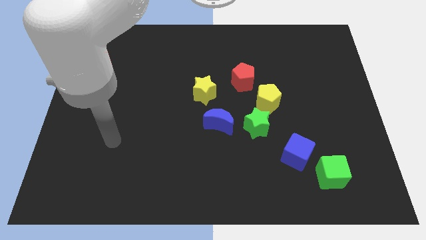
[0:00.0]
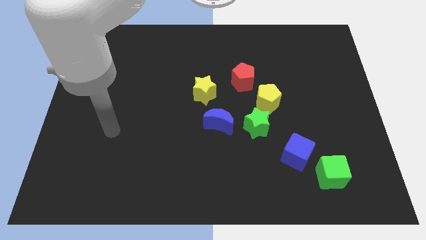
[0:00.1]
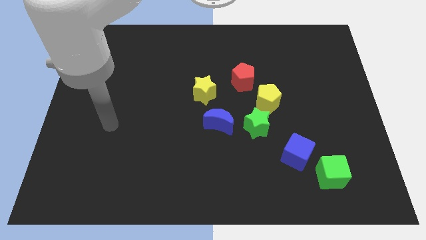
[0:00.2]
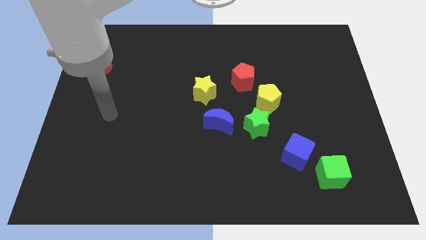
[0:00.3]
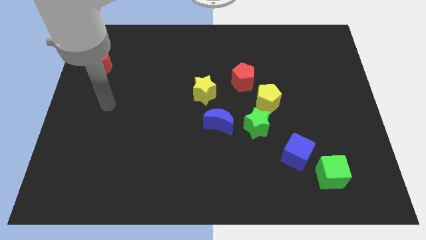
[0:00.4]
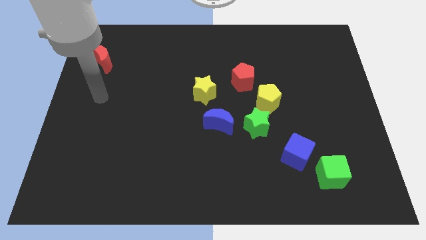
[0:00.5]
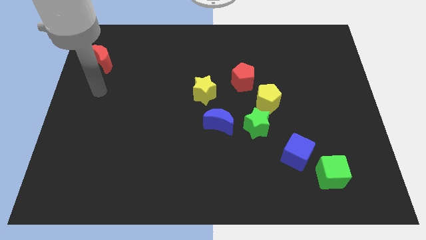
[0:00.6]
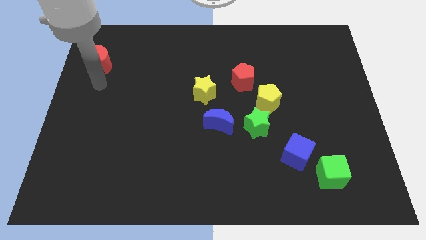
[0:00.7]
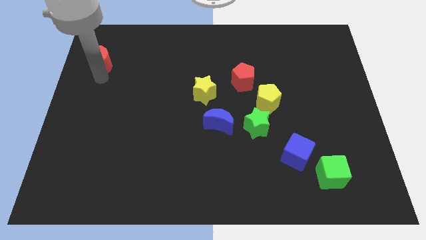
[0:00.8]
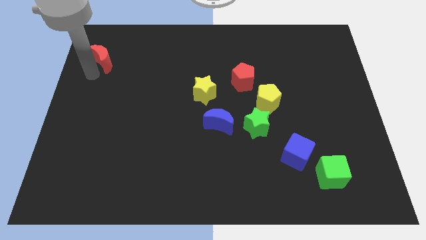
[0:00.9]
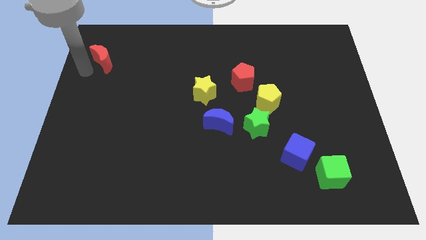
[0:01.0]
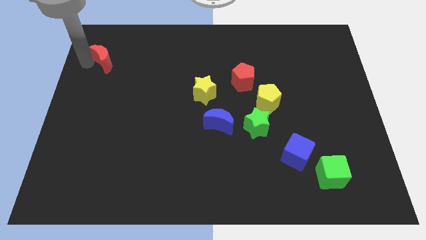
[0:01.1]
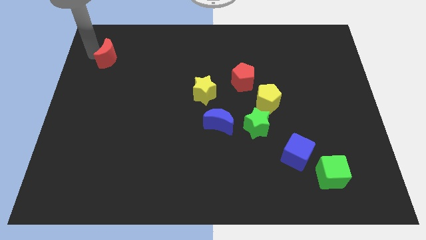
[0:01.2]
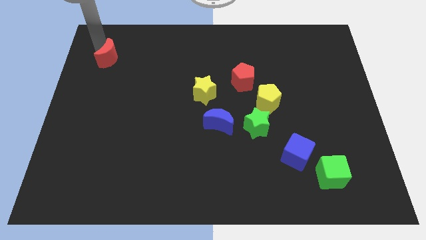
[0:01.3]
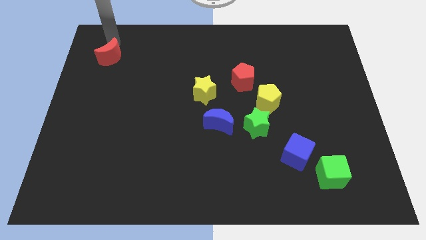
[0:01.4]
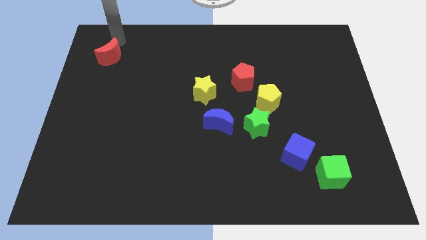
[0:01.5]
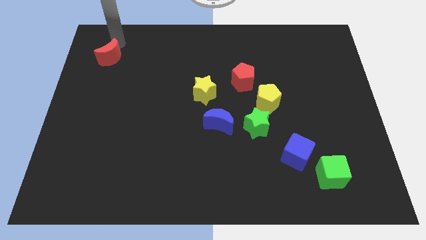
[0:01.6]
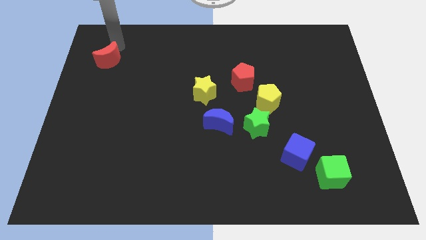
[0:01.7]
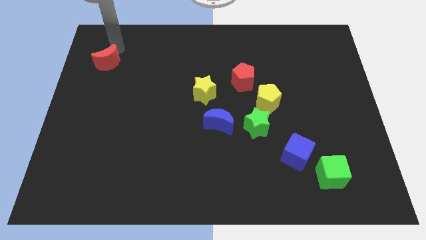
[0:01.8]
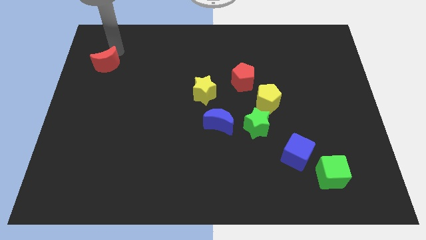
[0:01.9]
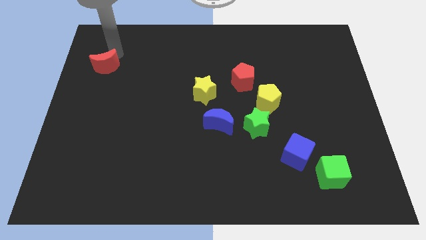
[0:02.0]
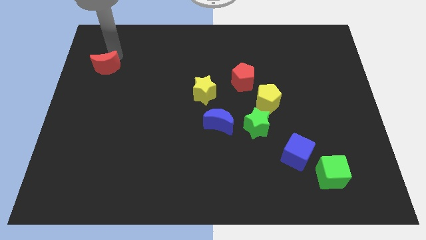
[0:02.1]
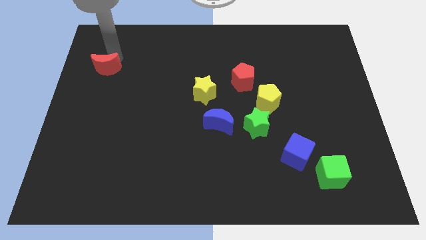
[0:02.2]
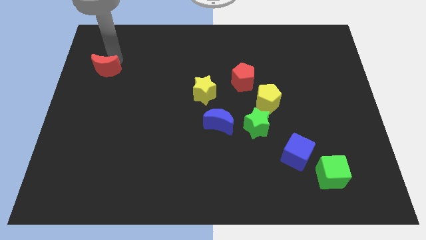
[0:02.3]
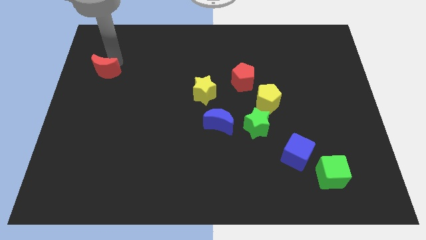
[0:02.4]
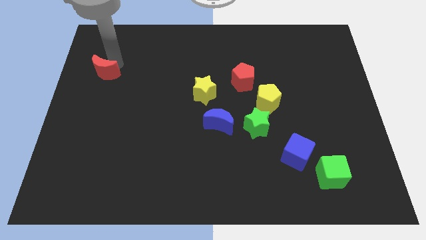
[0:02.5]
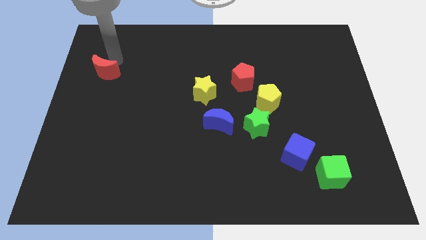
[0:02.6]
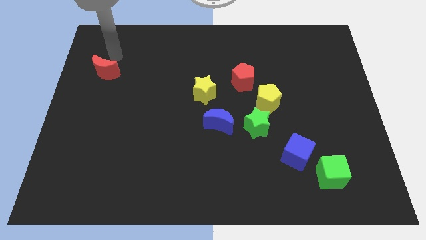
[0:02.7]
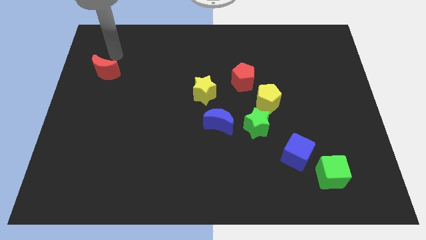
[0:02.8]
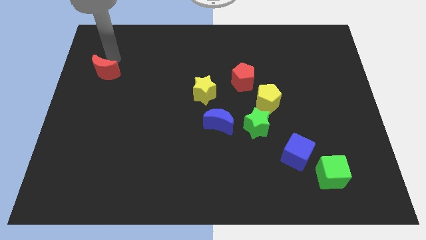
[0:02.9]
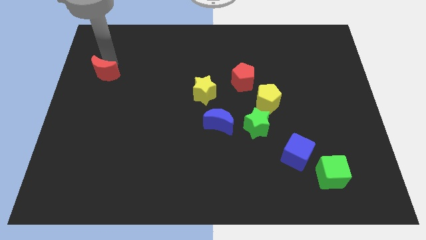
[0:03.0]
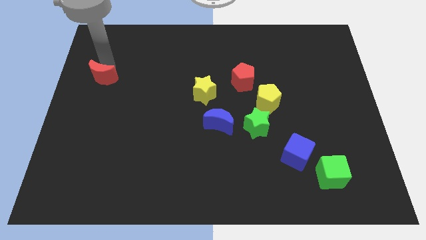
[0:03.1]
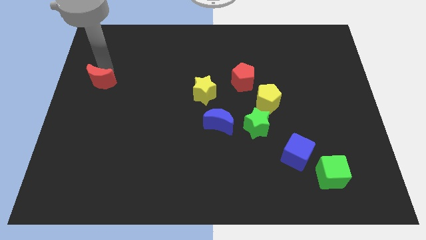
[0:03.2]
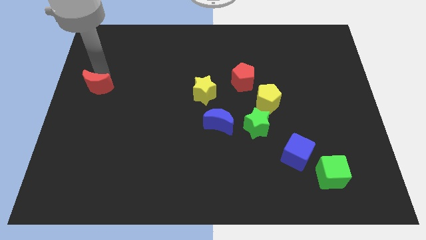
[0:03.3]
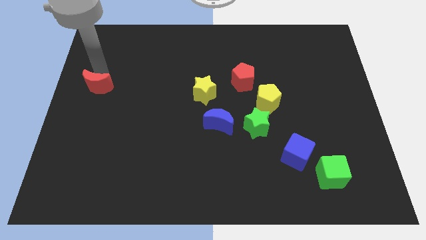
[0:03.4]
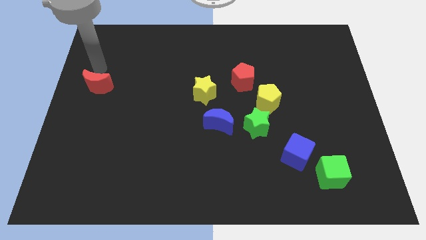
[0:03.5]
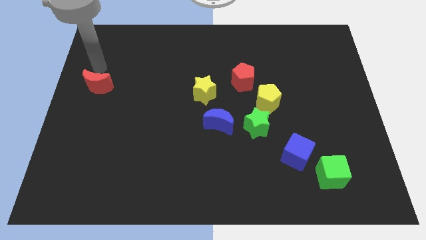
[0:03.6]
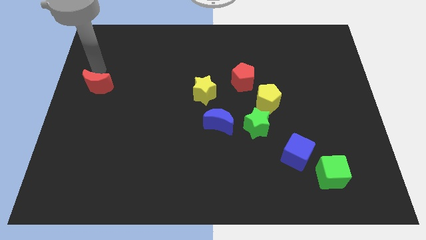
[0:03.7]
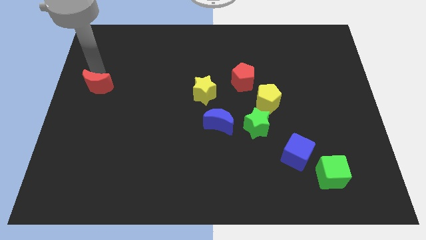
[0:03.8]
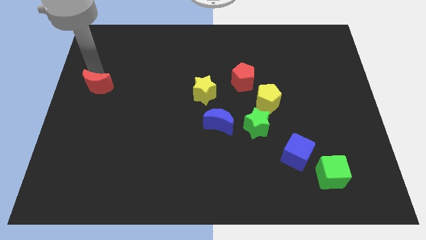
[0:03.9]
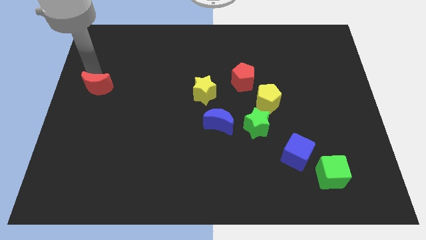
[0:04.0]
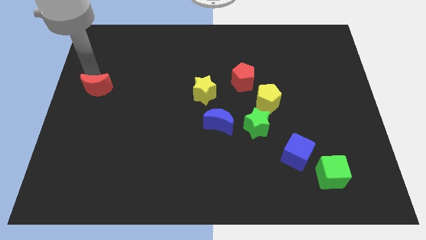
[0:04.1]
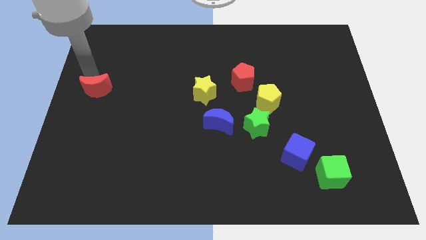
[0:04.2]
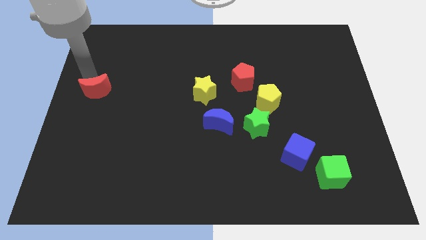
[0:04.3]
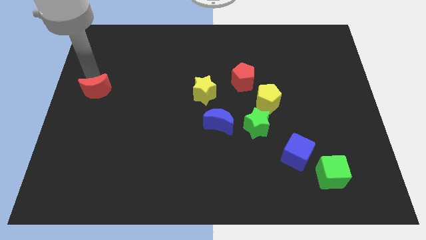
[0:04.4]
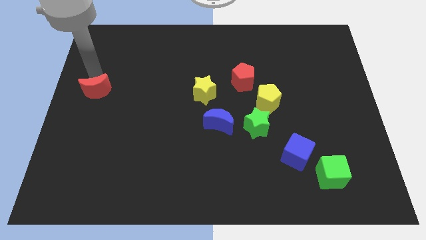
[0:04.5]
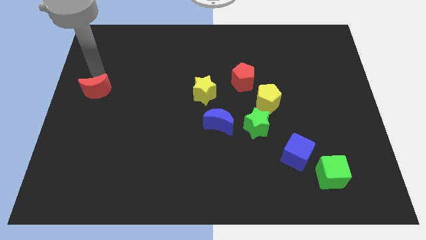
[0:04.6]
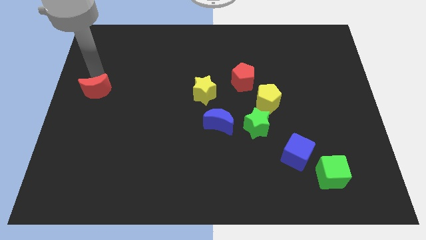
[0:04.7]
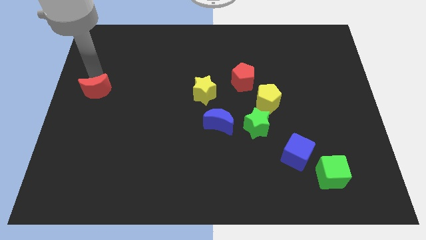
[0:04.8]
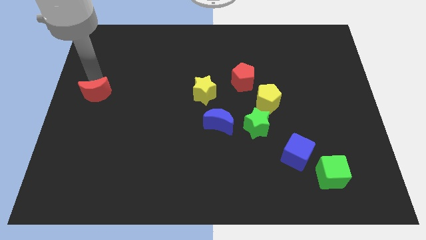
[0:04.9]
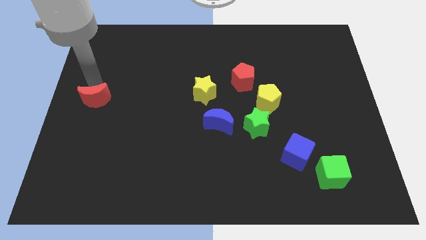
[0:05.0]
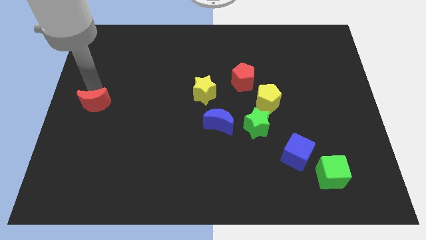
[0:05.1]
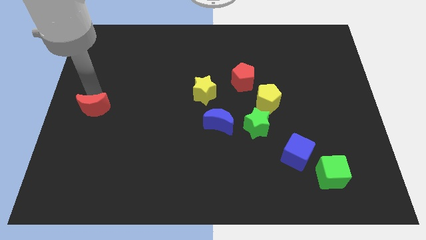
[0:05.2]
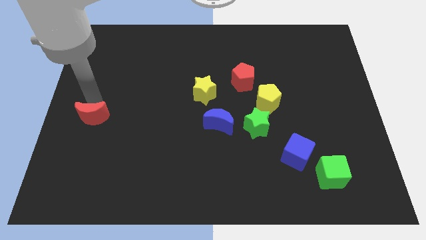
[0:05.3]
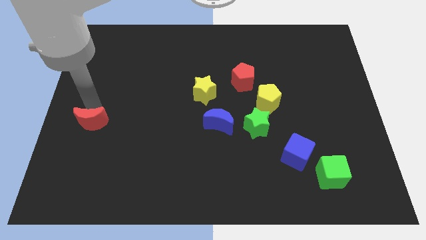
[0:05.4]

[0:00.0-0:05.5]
move the red moon downwards

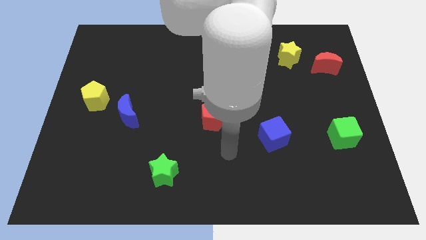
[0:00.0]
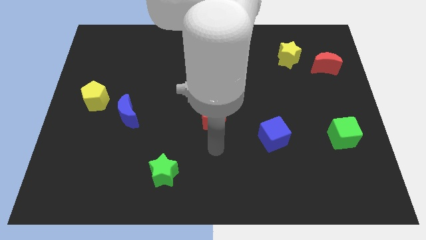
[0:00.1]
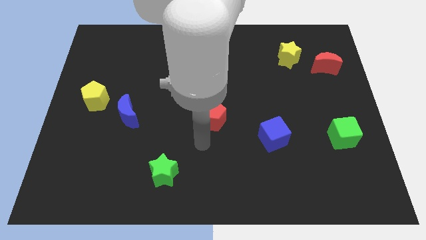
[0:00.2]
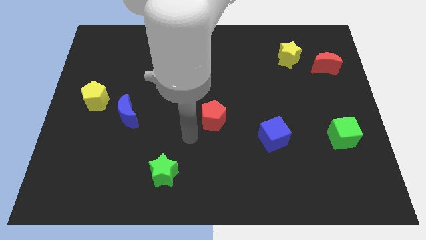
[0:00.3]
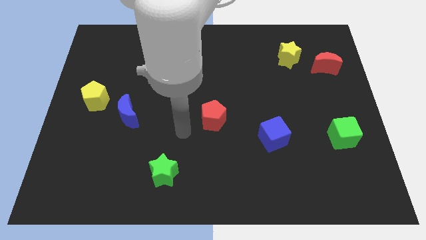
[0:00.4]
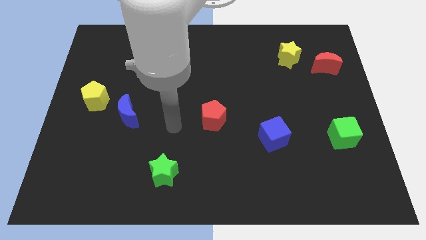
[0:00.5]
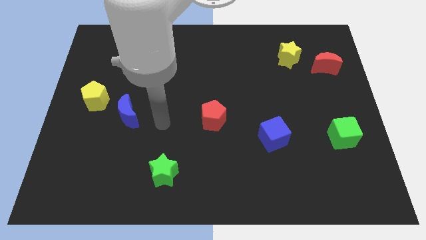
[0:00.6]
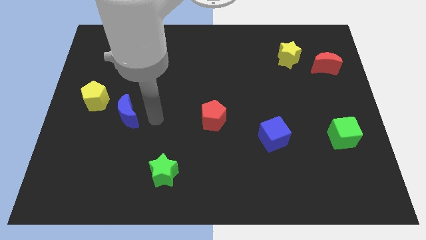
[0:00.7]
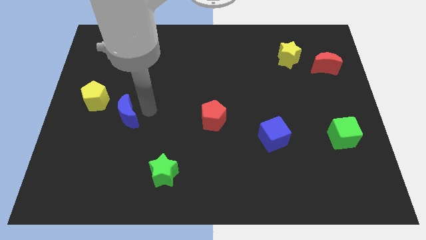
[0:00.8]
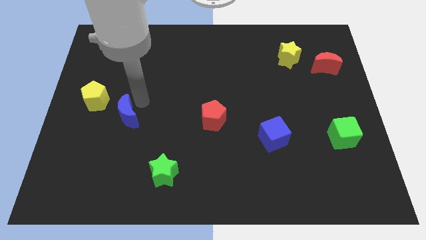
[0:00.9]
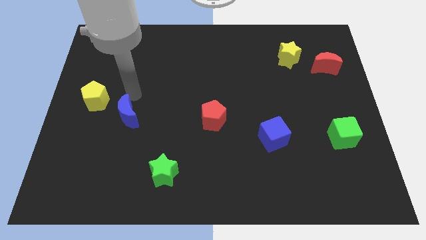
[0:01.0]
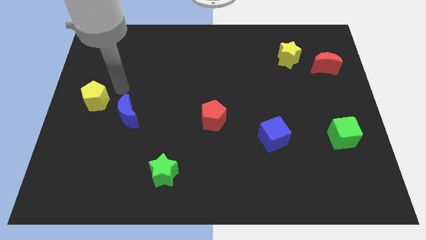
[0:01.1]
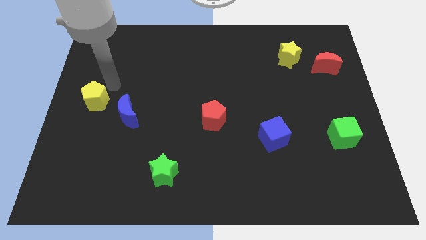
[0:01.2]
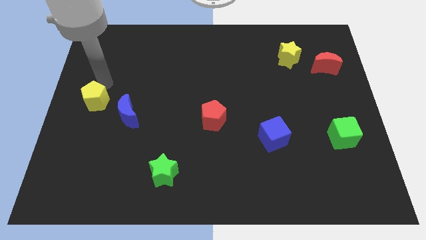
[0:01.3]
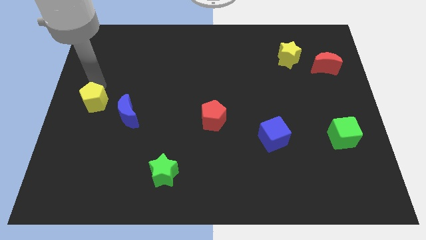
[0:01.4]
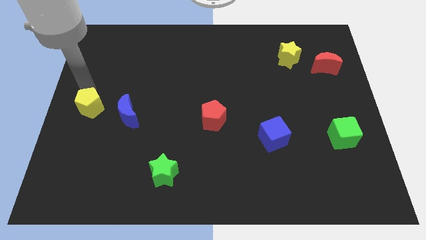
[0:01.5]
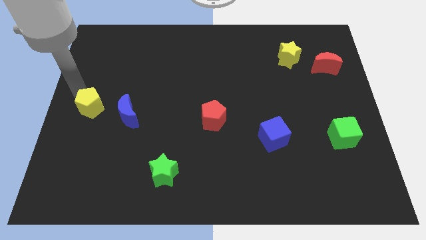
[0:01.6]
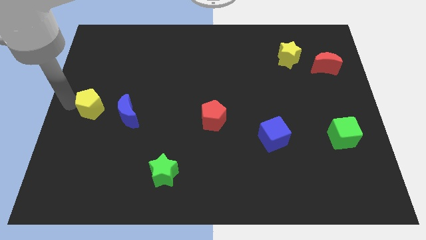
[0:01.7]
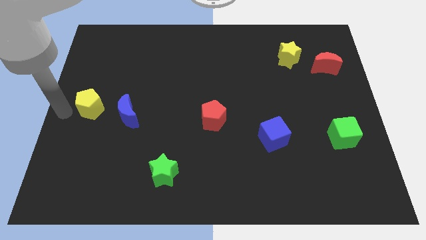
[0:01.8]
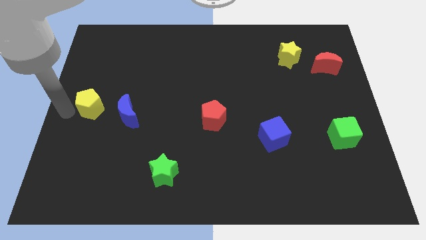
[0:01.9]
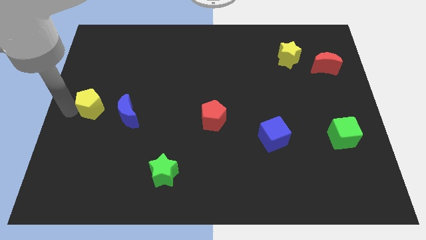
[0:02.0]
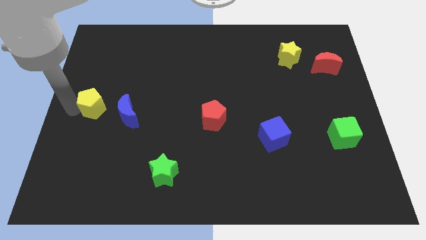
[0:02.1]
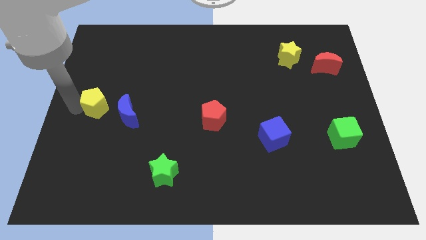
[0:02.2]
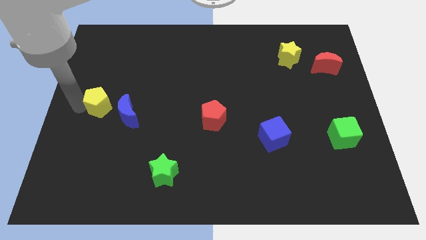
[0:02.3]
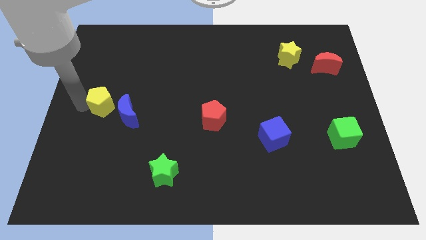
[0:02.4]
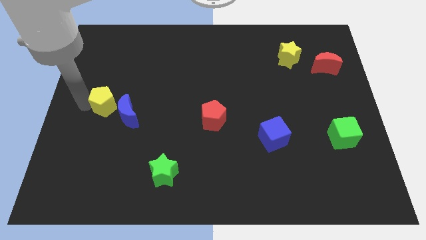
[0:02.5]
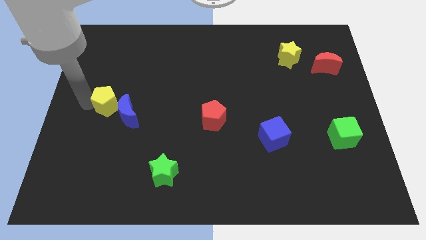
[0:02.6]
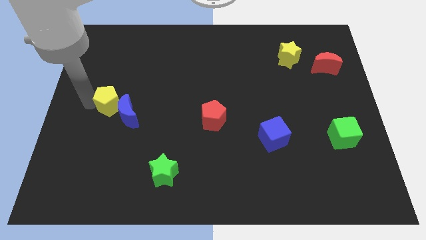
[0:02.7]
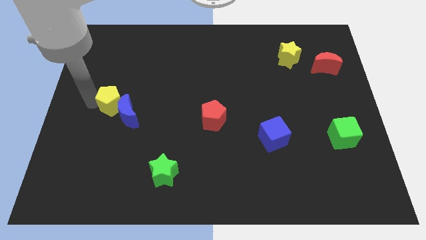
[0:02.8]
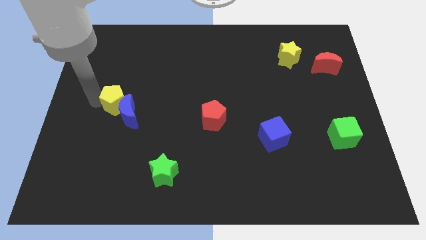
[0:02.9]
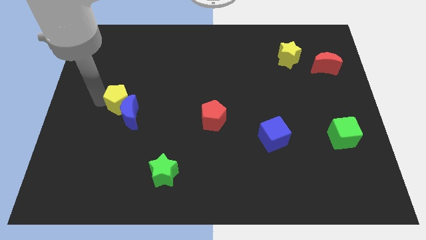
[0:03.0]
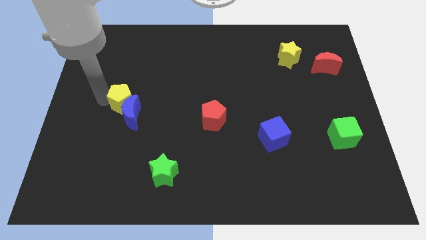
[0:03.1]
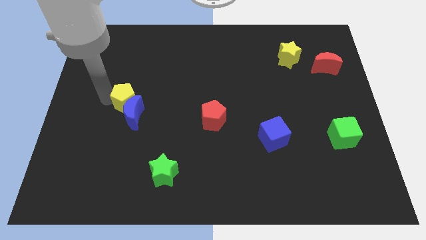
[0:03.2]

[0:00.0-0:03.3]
slightly push the yellow pentagon to the right
